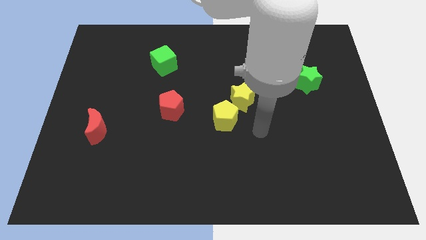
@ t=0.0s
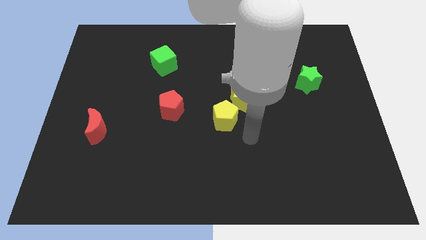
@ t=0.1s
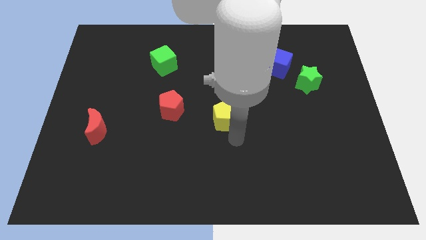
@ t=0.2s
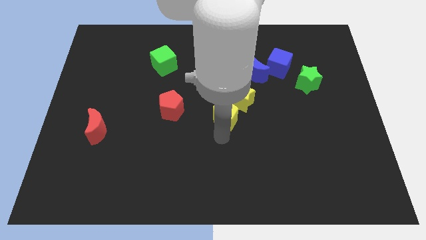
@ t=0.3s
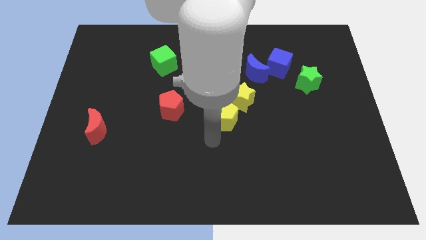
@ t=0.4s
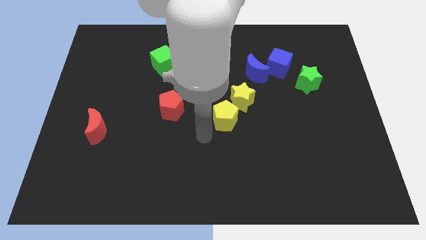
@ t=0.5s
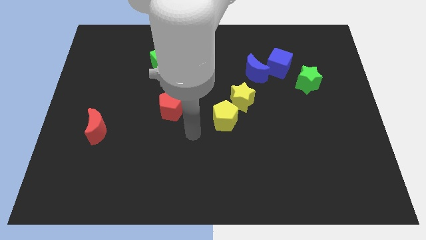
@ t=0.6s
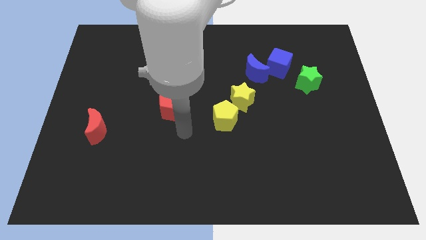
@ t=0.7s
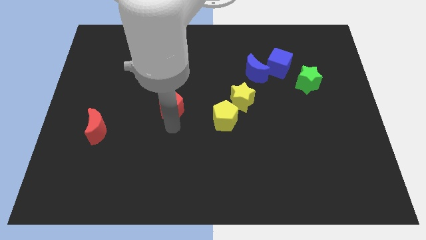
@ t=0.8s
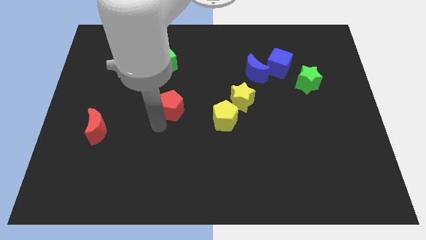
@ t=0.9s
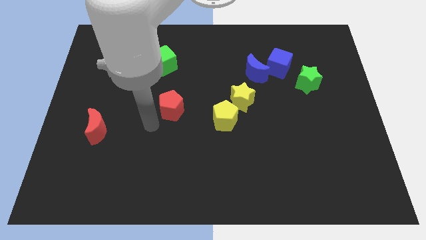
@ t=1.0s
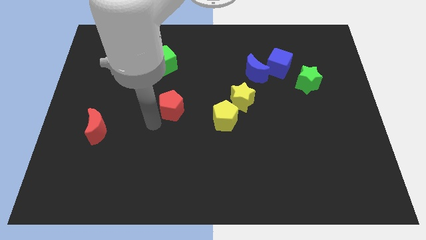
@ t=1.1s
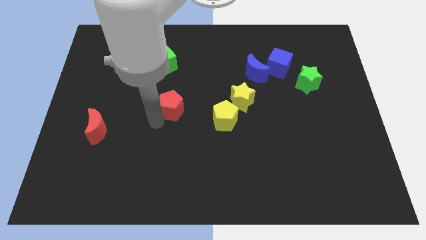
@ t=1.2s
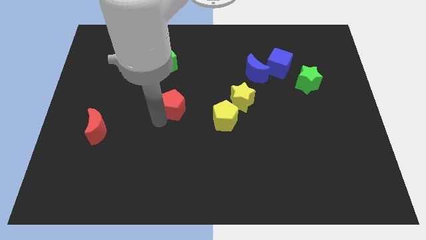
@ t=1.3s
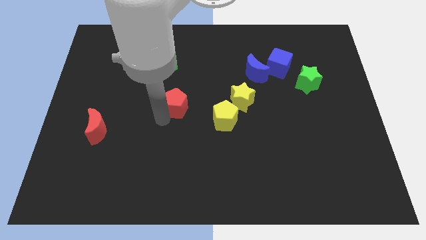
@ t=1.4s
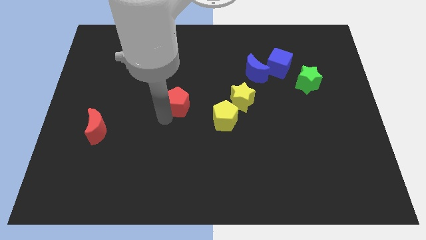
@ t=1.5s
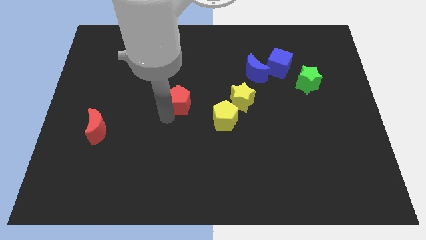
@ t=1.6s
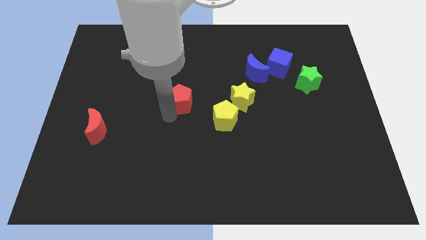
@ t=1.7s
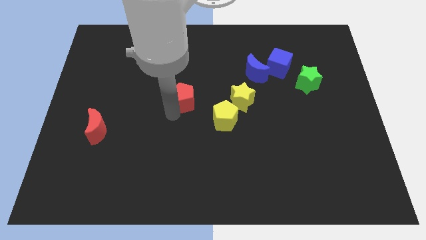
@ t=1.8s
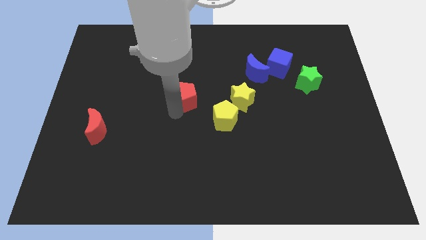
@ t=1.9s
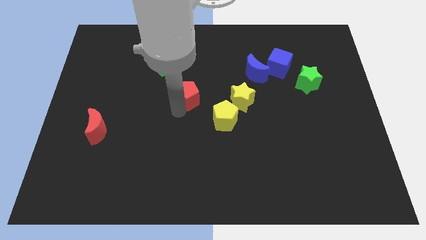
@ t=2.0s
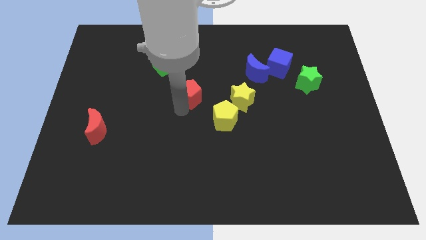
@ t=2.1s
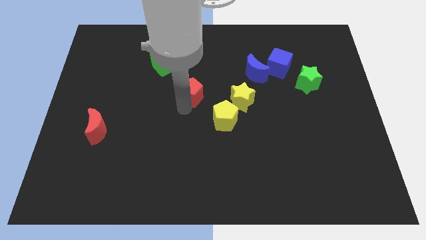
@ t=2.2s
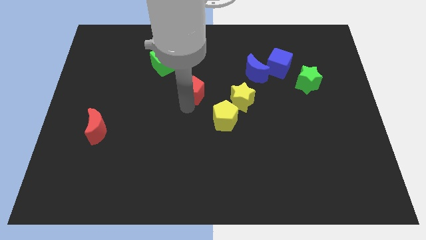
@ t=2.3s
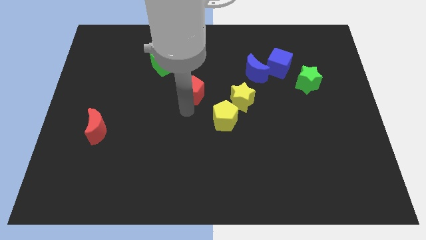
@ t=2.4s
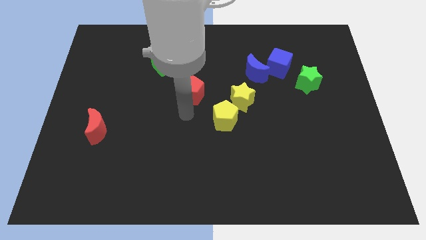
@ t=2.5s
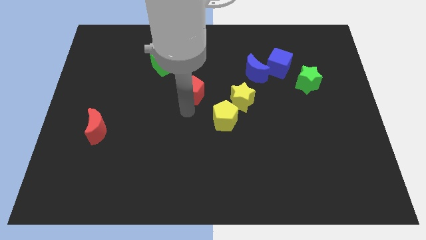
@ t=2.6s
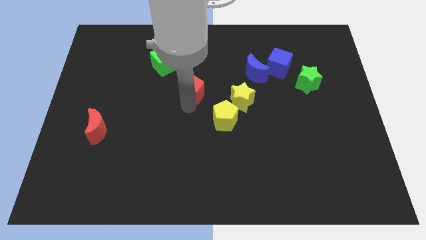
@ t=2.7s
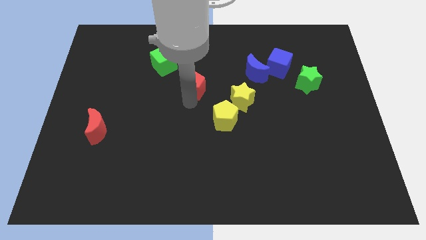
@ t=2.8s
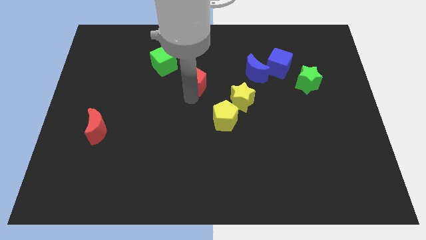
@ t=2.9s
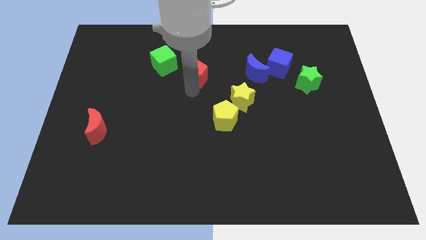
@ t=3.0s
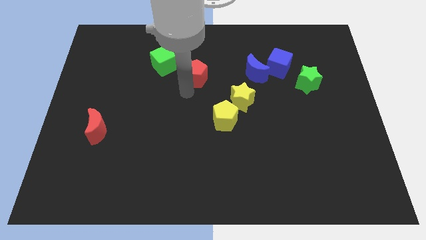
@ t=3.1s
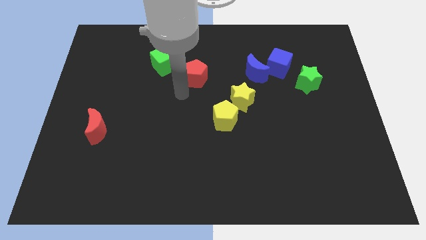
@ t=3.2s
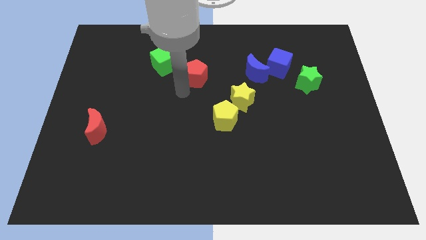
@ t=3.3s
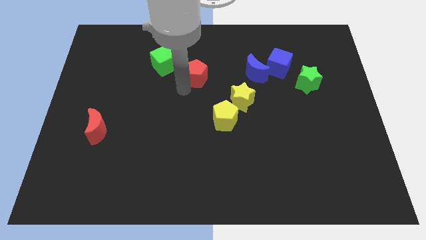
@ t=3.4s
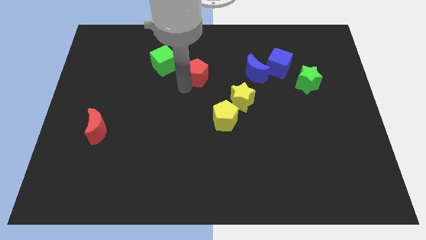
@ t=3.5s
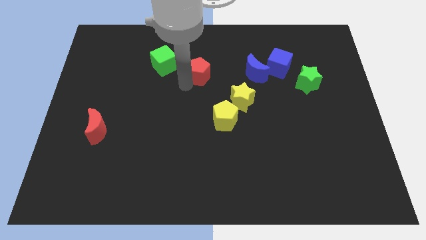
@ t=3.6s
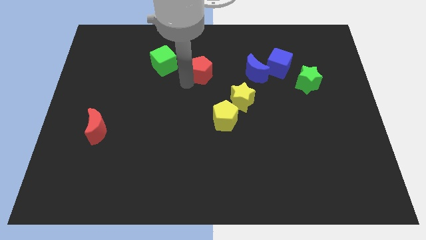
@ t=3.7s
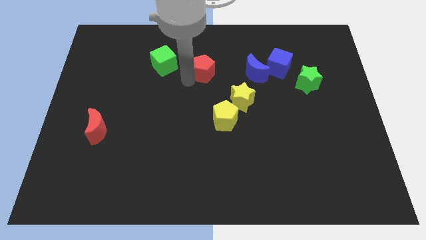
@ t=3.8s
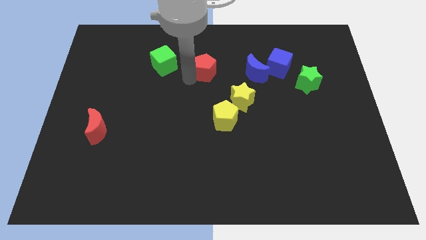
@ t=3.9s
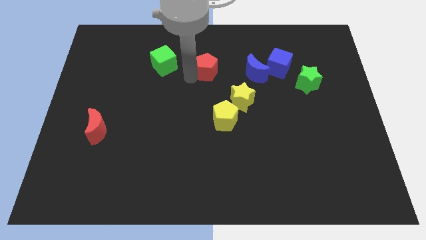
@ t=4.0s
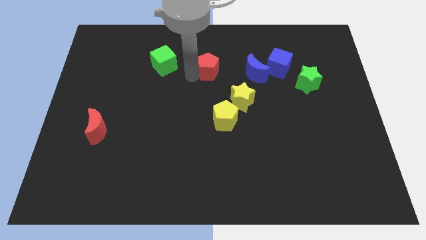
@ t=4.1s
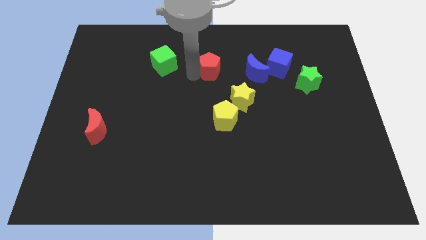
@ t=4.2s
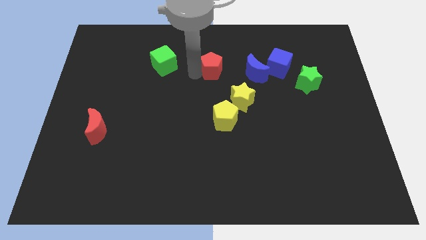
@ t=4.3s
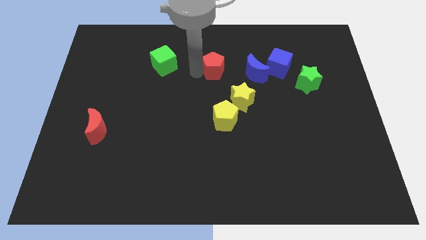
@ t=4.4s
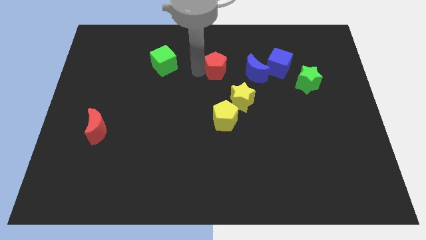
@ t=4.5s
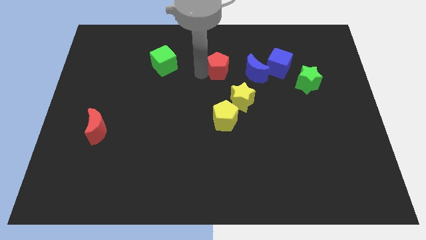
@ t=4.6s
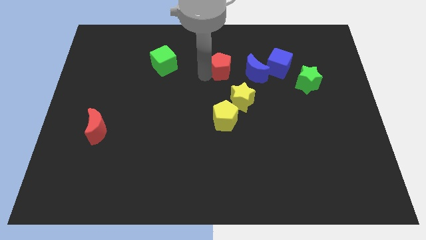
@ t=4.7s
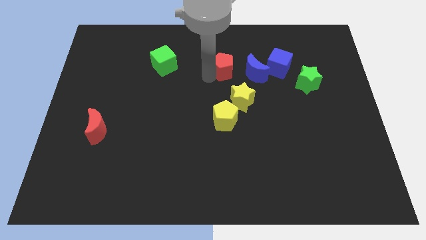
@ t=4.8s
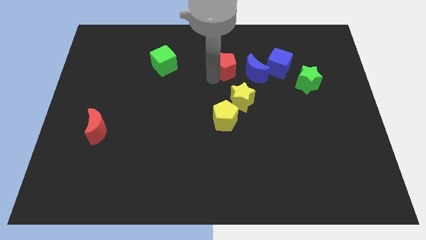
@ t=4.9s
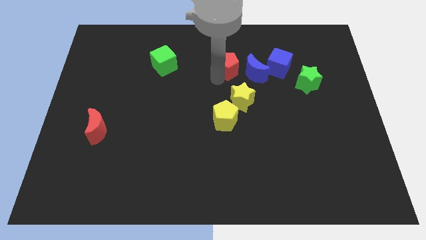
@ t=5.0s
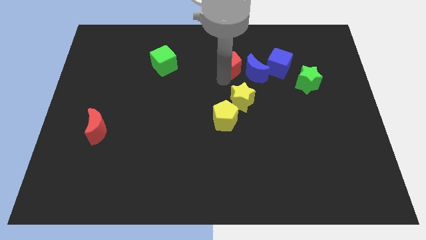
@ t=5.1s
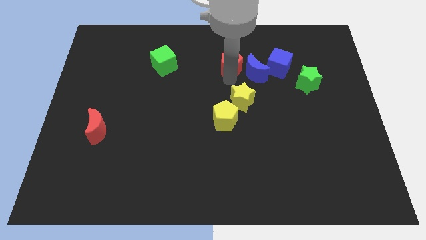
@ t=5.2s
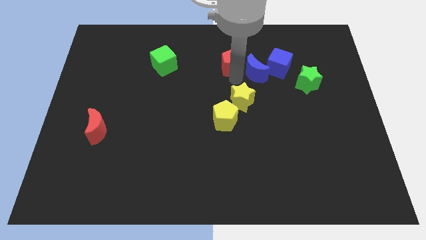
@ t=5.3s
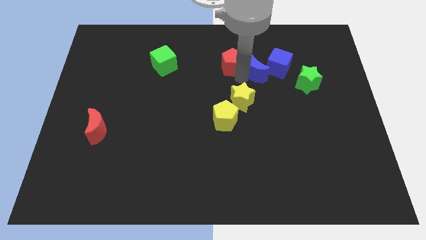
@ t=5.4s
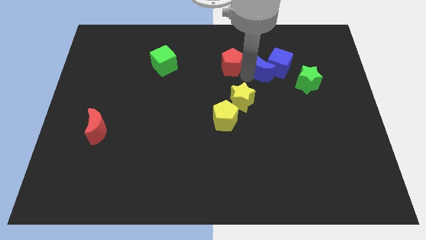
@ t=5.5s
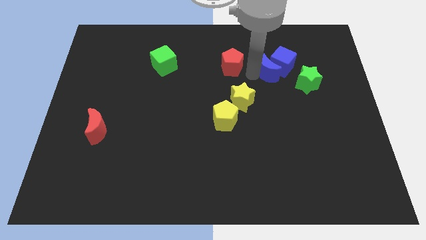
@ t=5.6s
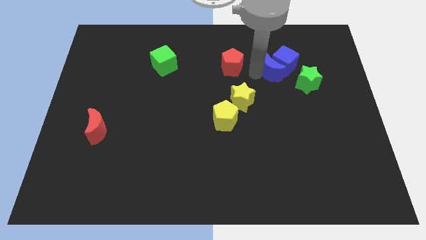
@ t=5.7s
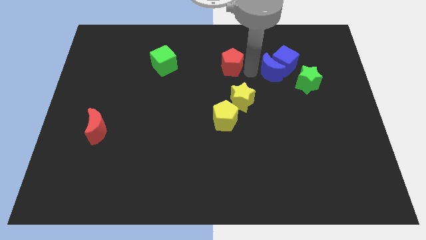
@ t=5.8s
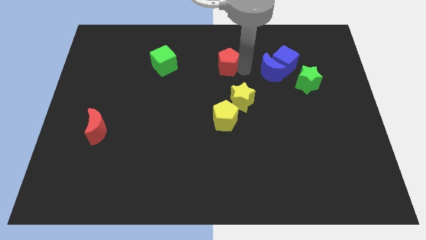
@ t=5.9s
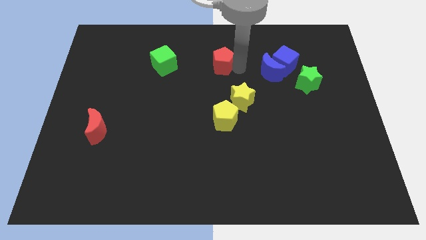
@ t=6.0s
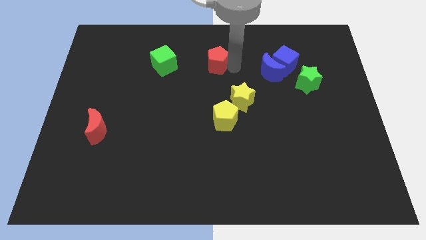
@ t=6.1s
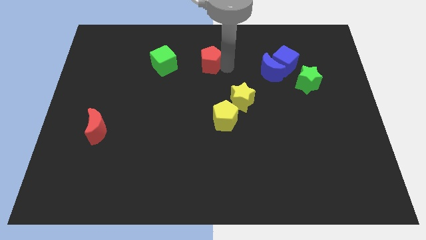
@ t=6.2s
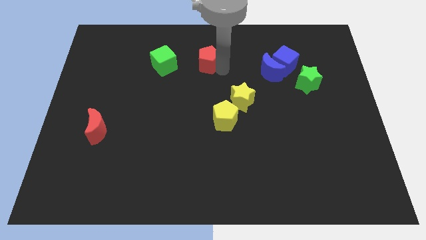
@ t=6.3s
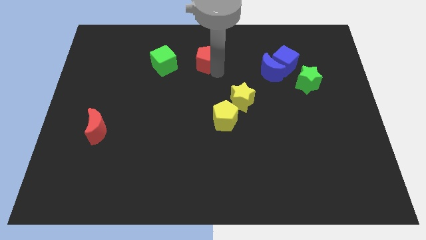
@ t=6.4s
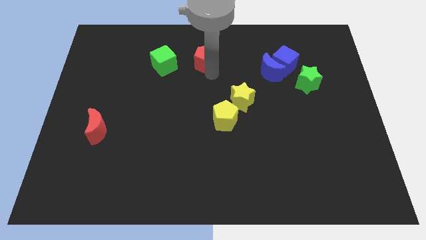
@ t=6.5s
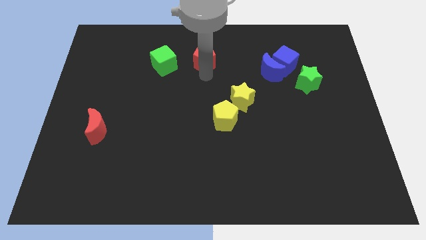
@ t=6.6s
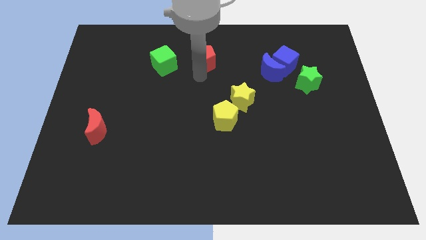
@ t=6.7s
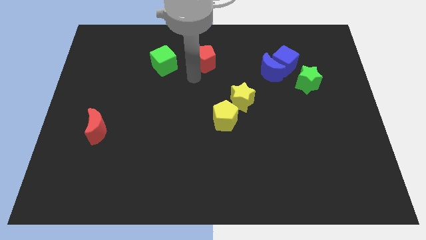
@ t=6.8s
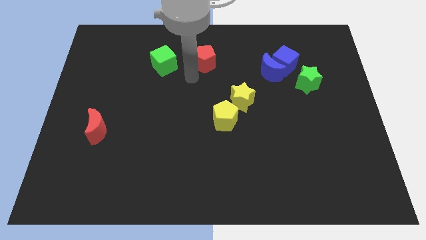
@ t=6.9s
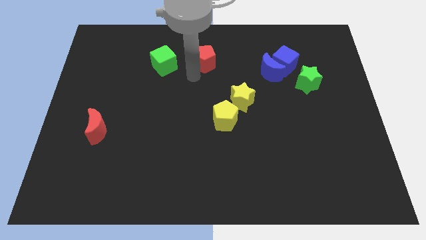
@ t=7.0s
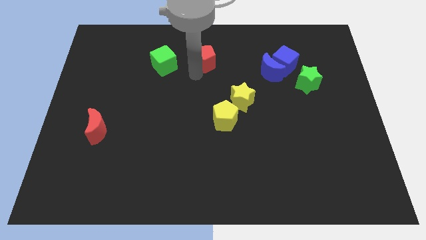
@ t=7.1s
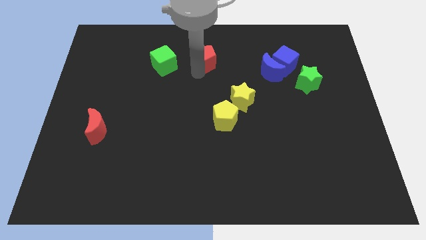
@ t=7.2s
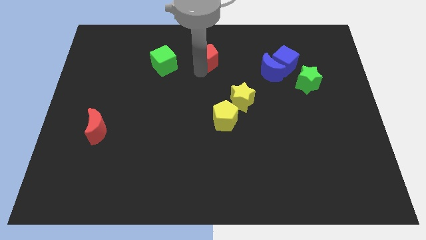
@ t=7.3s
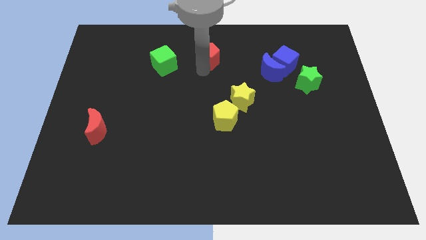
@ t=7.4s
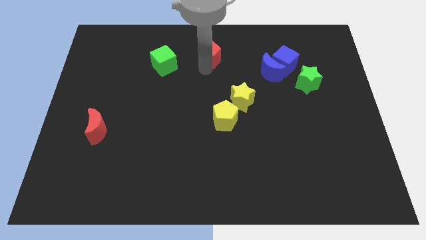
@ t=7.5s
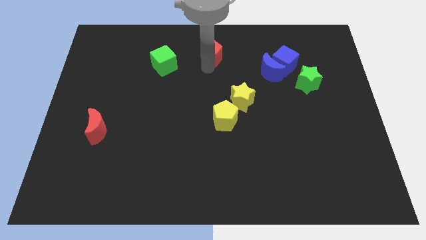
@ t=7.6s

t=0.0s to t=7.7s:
push the red pentagon to the towards your base
